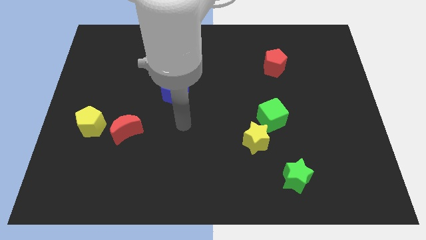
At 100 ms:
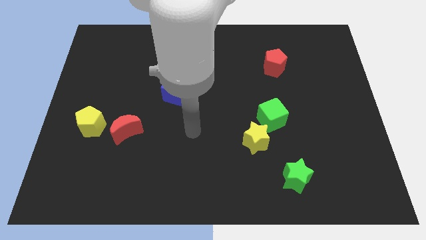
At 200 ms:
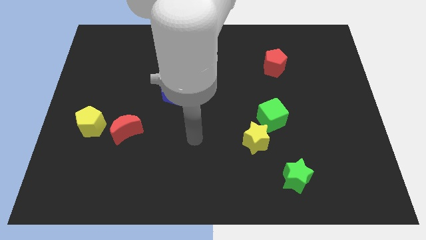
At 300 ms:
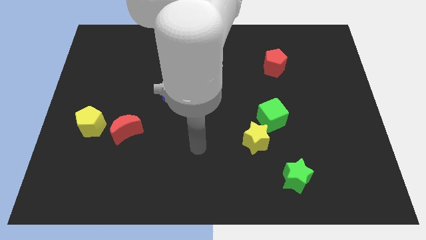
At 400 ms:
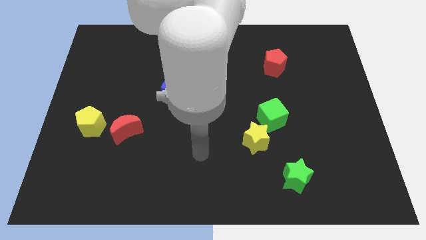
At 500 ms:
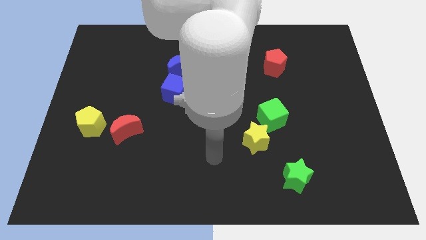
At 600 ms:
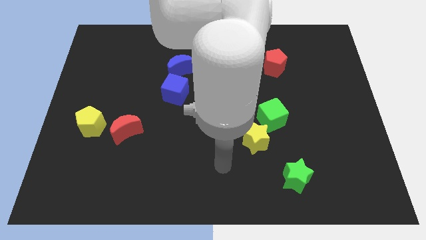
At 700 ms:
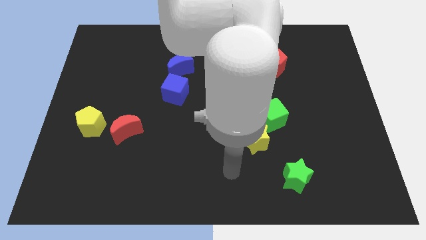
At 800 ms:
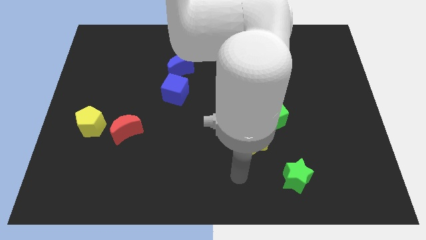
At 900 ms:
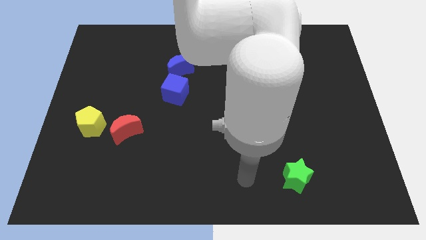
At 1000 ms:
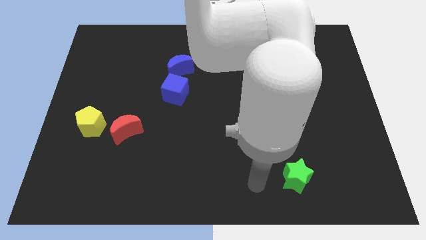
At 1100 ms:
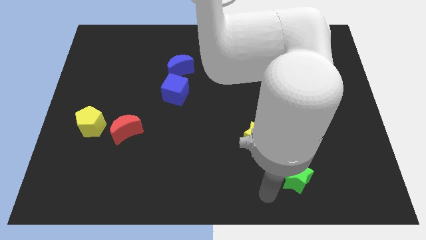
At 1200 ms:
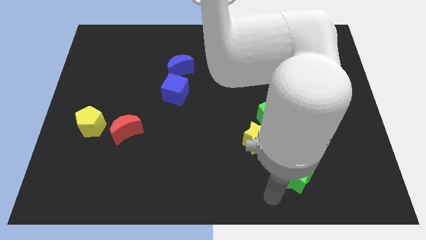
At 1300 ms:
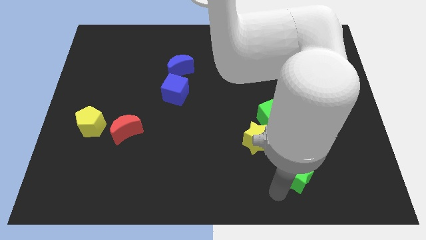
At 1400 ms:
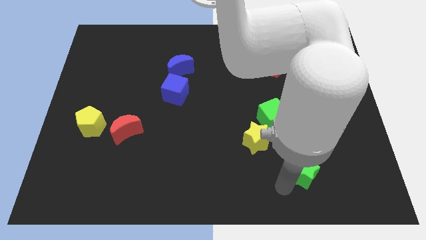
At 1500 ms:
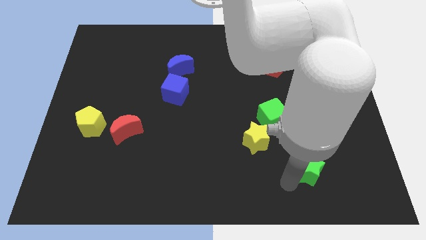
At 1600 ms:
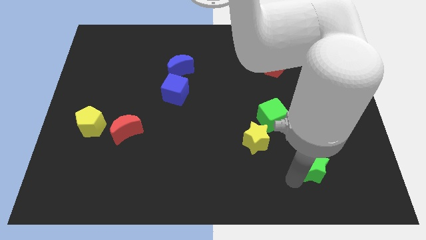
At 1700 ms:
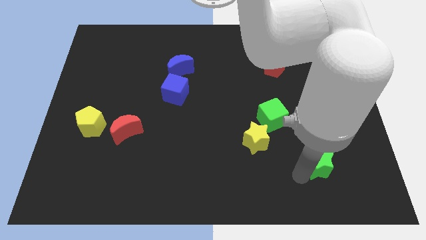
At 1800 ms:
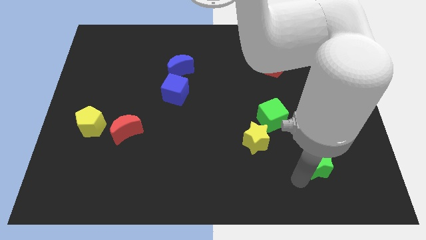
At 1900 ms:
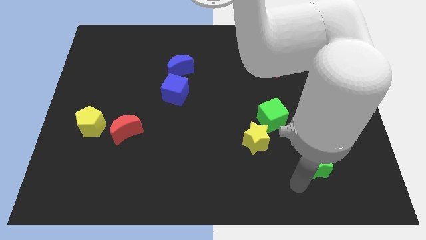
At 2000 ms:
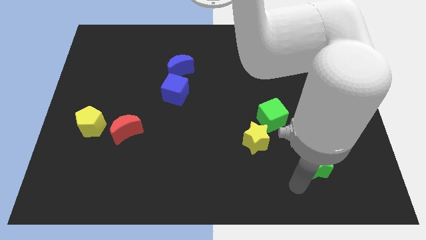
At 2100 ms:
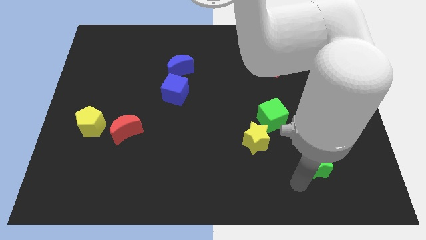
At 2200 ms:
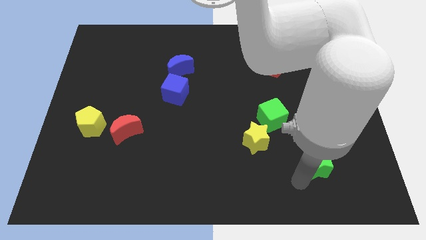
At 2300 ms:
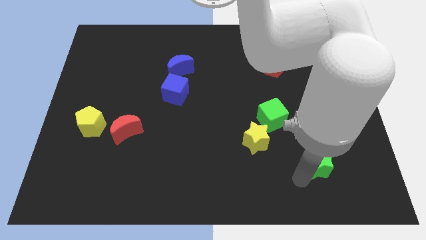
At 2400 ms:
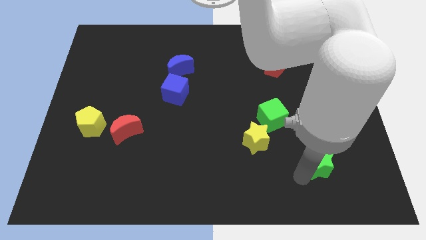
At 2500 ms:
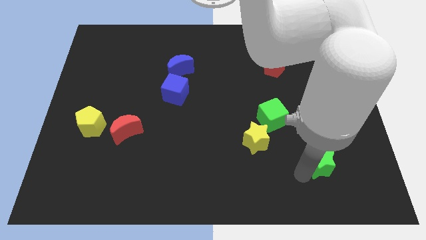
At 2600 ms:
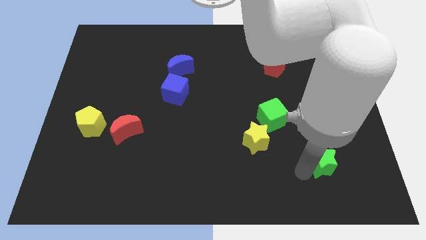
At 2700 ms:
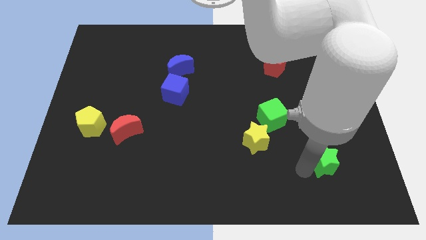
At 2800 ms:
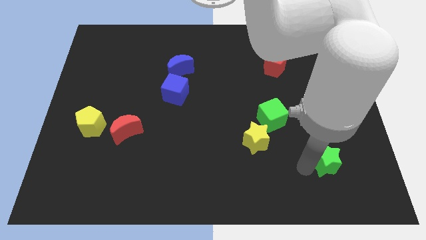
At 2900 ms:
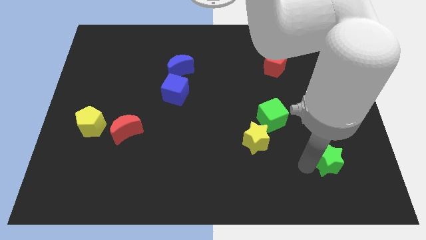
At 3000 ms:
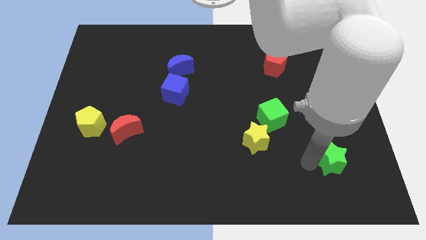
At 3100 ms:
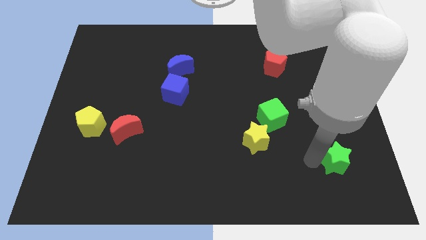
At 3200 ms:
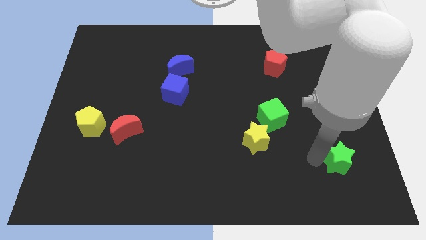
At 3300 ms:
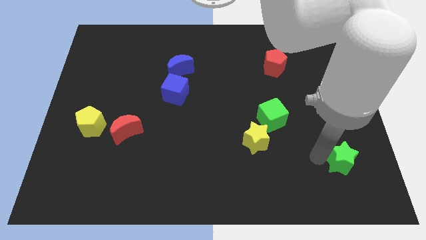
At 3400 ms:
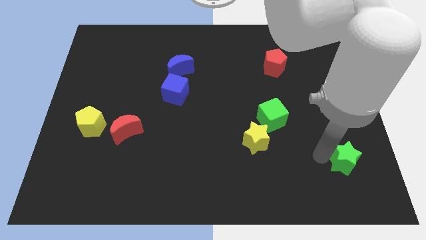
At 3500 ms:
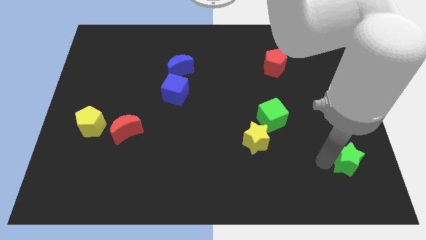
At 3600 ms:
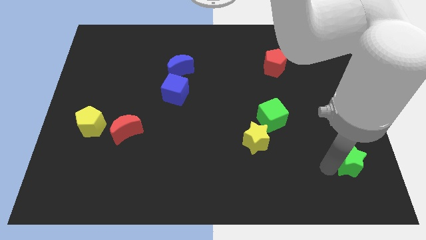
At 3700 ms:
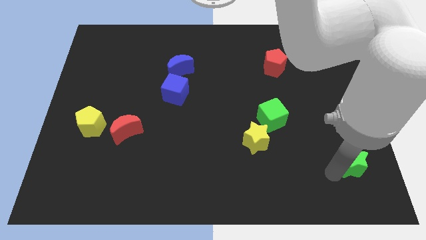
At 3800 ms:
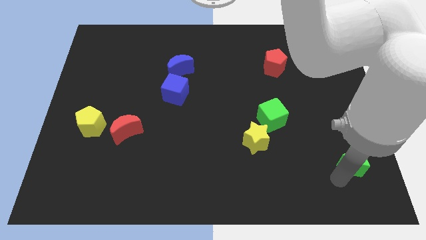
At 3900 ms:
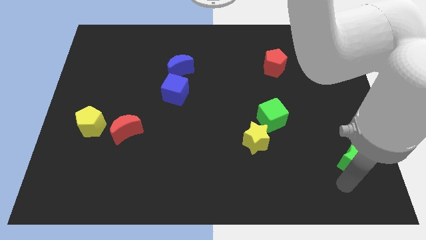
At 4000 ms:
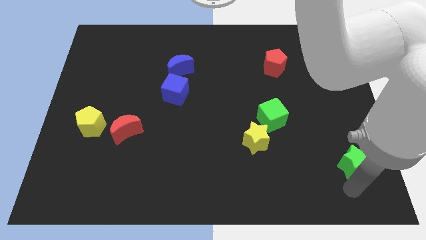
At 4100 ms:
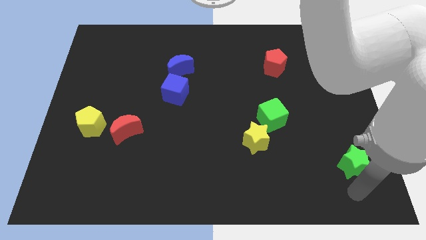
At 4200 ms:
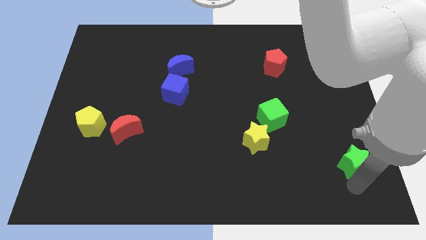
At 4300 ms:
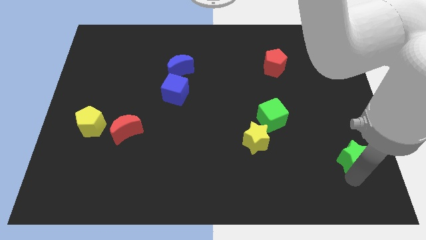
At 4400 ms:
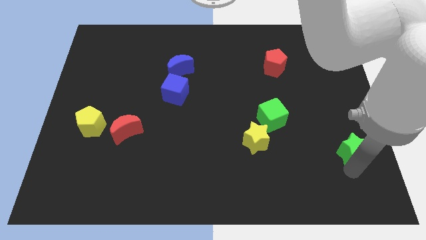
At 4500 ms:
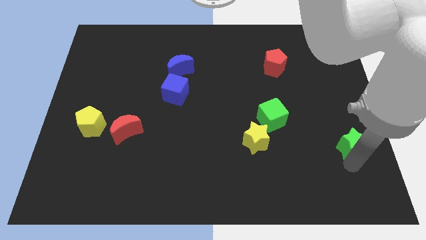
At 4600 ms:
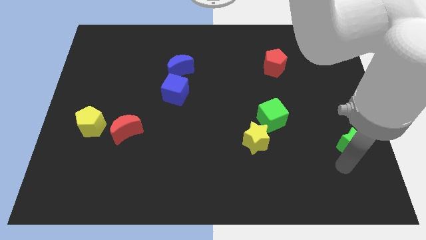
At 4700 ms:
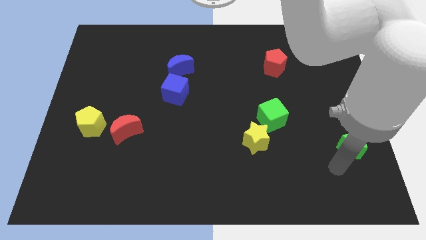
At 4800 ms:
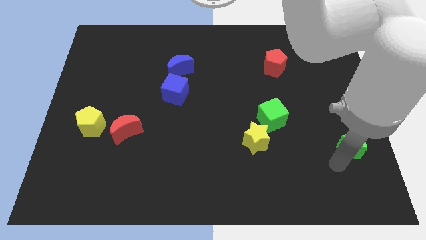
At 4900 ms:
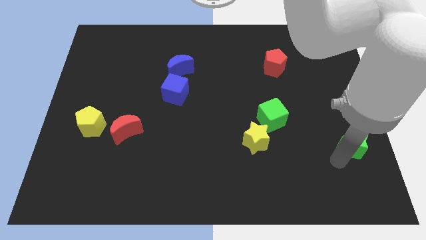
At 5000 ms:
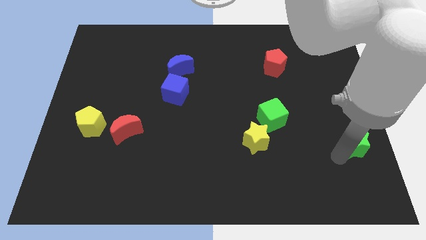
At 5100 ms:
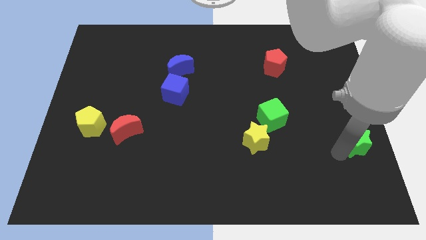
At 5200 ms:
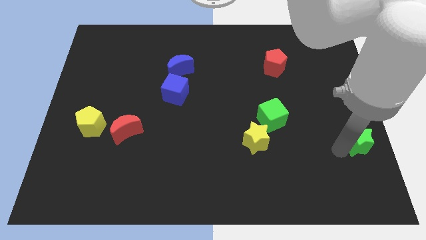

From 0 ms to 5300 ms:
slide the green star to the right side of the board

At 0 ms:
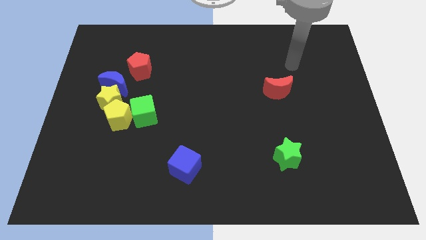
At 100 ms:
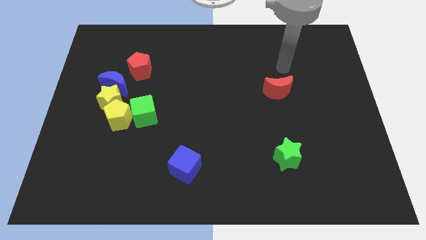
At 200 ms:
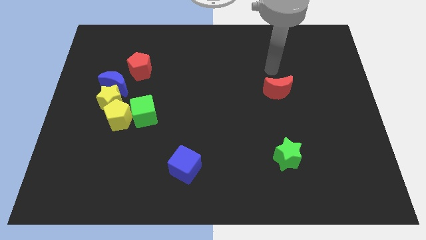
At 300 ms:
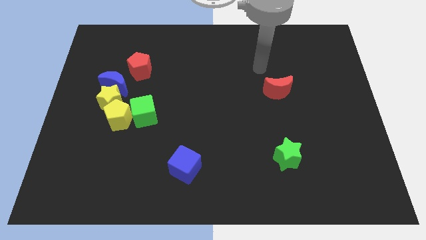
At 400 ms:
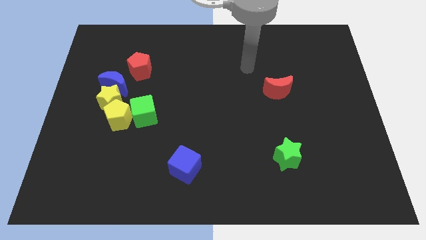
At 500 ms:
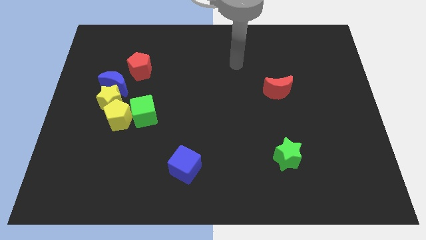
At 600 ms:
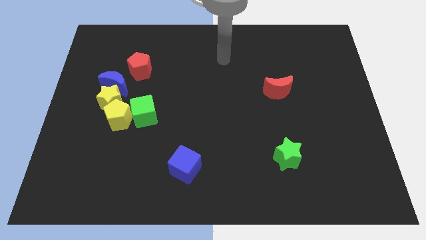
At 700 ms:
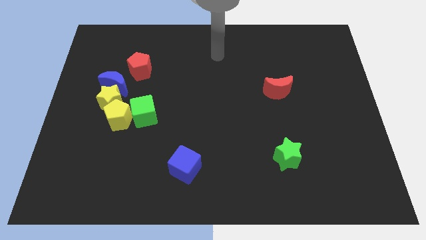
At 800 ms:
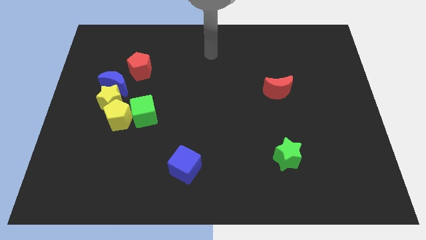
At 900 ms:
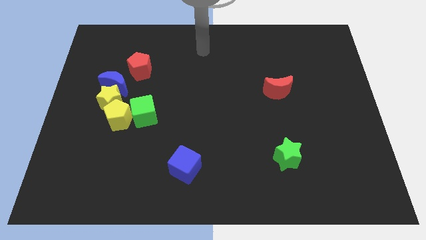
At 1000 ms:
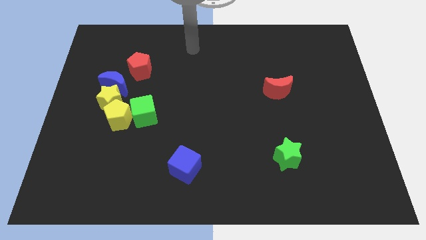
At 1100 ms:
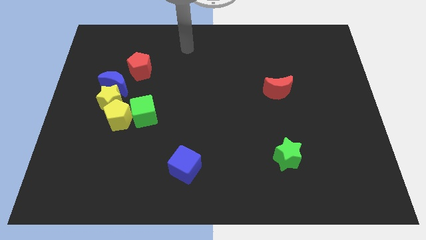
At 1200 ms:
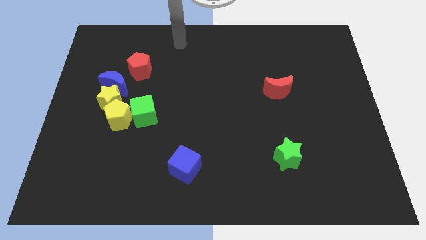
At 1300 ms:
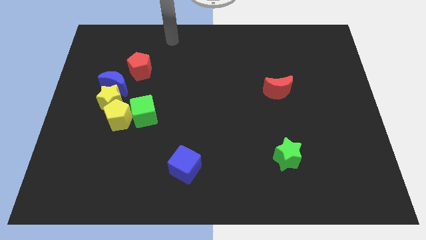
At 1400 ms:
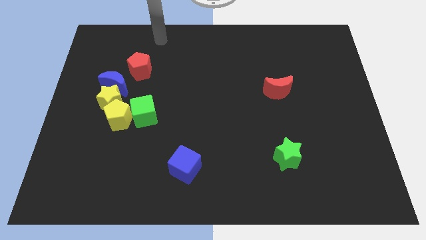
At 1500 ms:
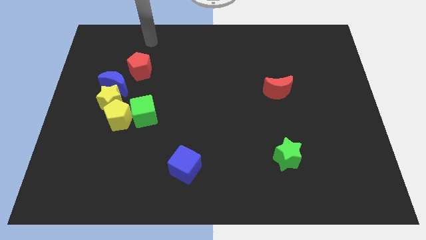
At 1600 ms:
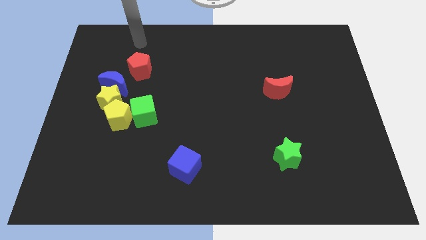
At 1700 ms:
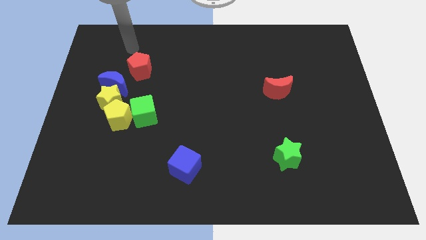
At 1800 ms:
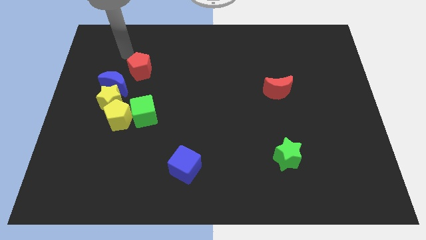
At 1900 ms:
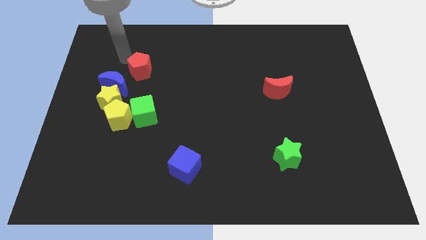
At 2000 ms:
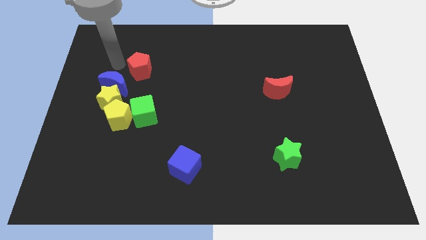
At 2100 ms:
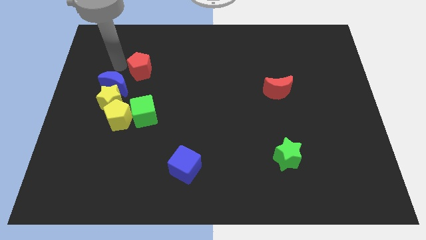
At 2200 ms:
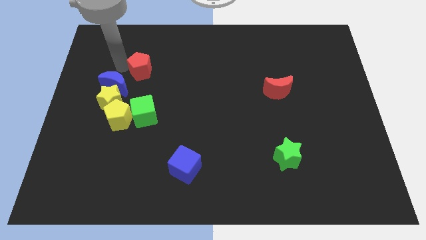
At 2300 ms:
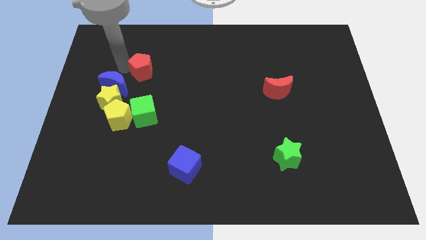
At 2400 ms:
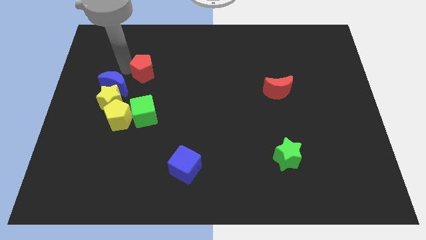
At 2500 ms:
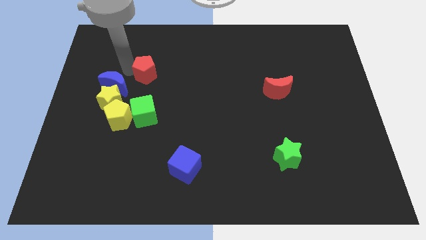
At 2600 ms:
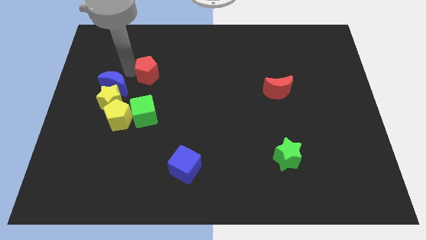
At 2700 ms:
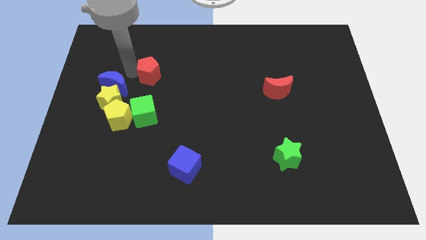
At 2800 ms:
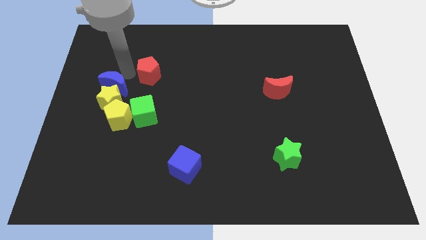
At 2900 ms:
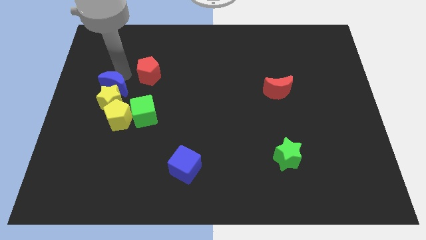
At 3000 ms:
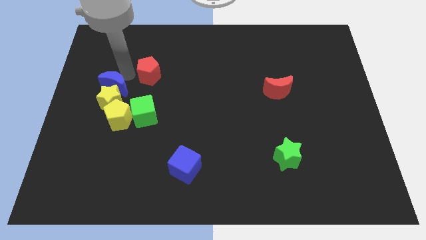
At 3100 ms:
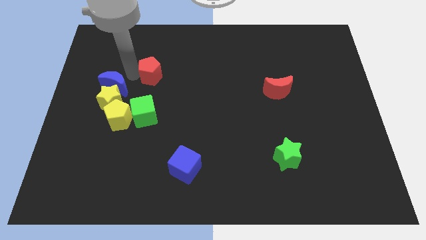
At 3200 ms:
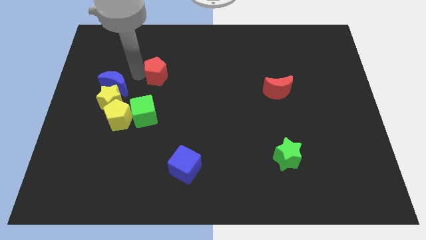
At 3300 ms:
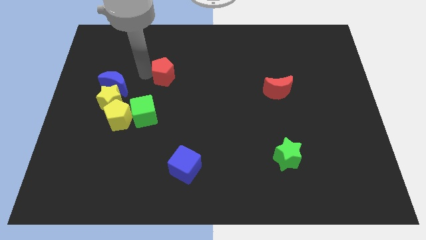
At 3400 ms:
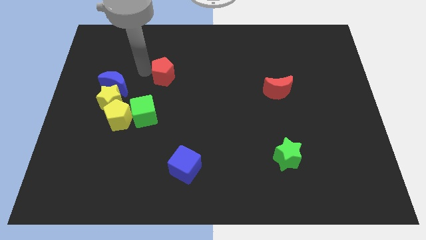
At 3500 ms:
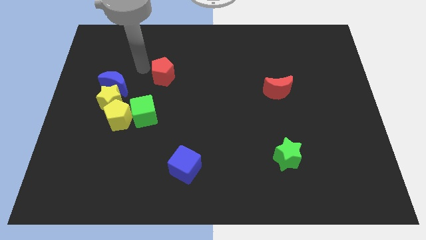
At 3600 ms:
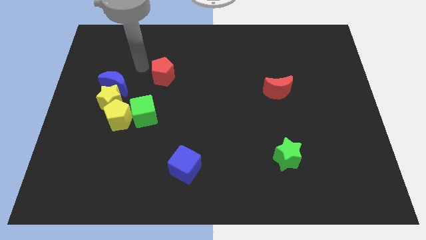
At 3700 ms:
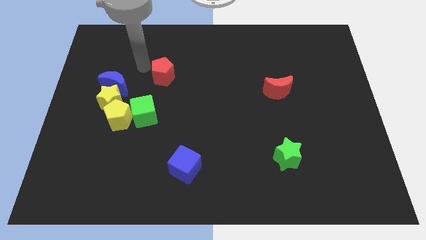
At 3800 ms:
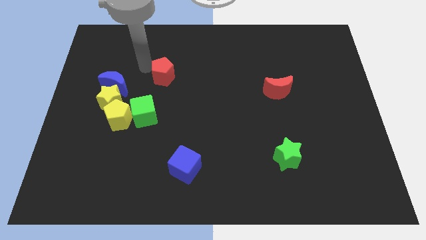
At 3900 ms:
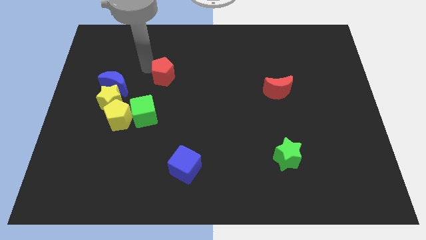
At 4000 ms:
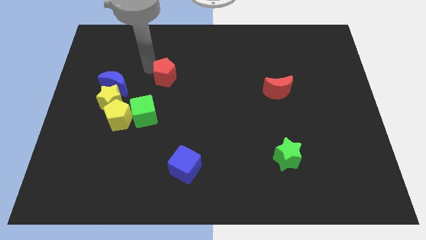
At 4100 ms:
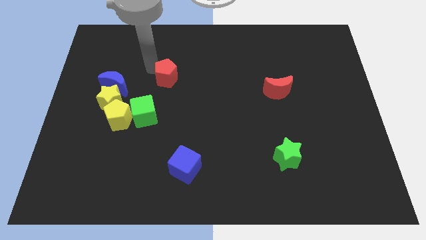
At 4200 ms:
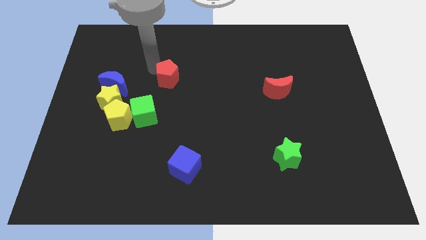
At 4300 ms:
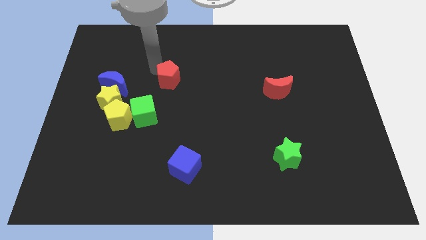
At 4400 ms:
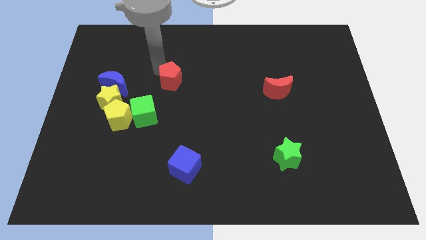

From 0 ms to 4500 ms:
push the red pentagon to the center of the board
